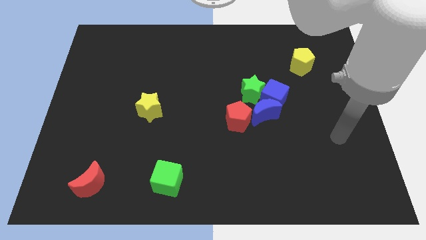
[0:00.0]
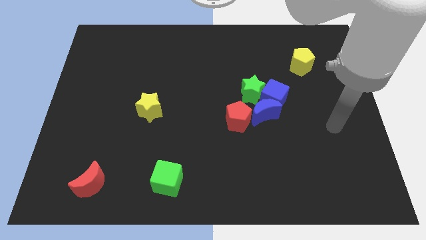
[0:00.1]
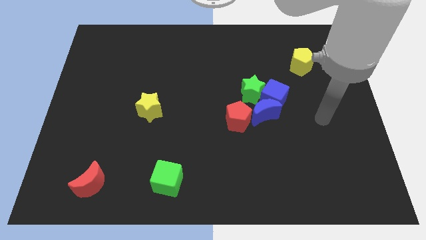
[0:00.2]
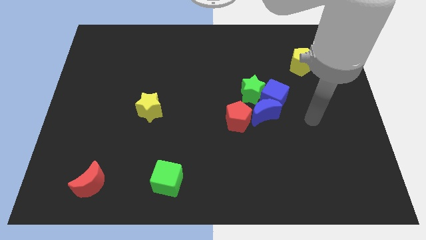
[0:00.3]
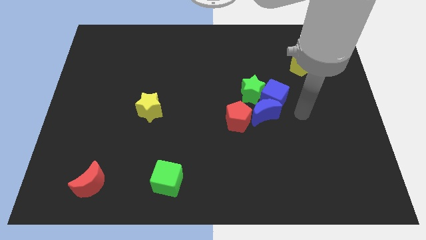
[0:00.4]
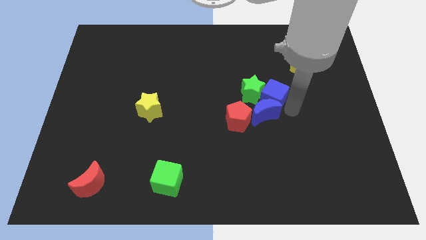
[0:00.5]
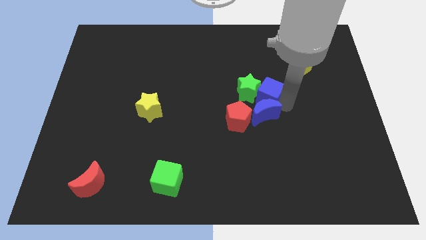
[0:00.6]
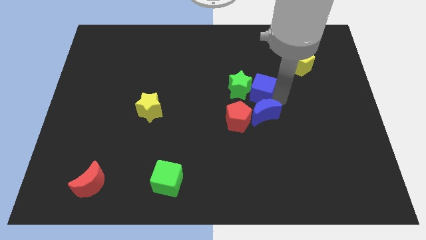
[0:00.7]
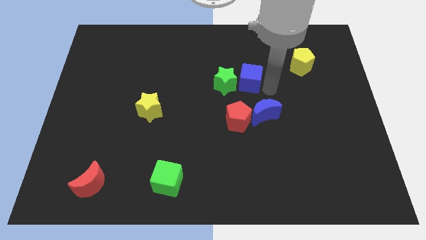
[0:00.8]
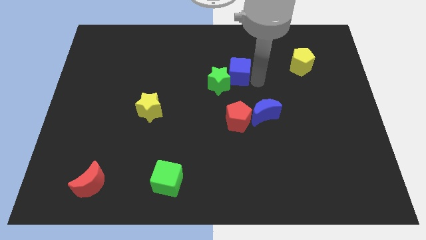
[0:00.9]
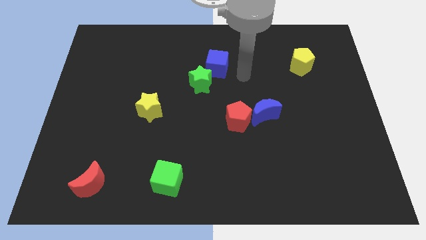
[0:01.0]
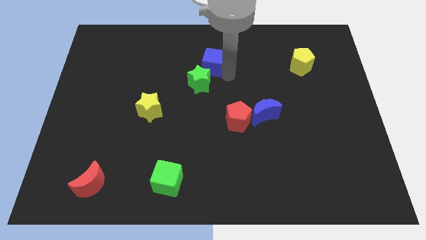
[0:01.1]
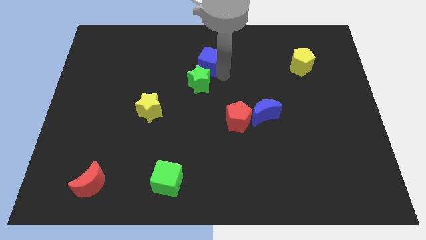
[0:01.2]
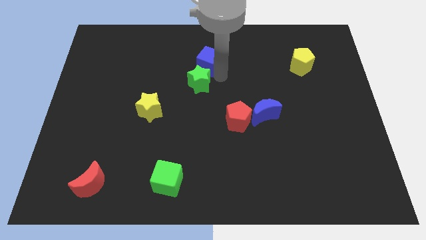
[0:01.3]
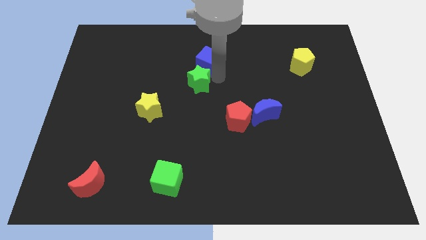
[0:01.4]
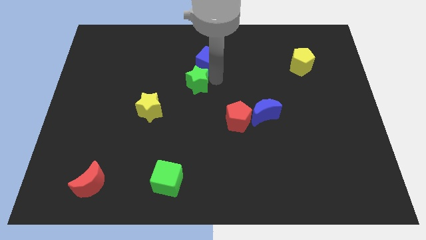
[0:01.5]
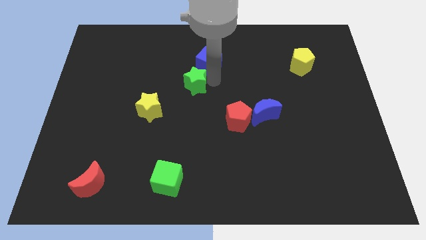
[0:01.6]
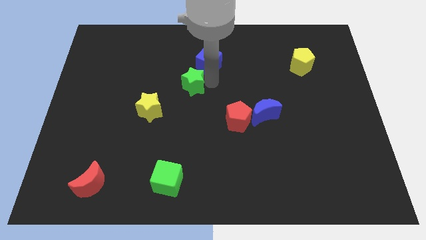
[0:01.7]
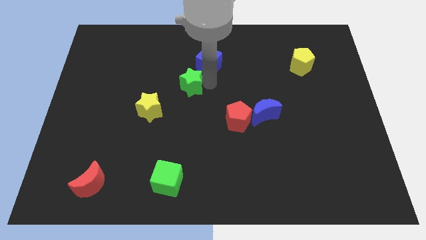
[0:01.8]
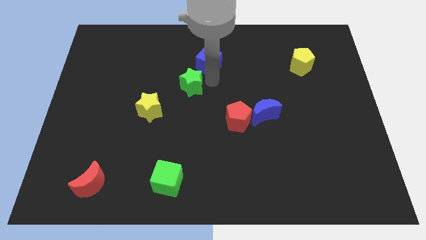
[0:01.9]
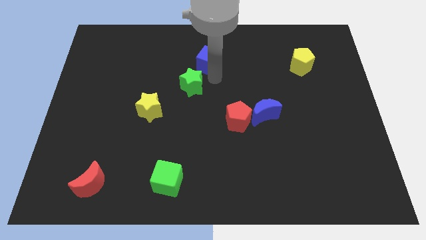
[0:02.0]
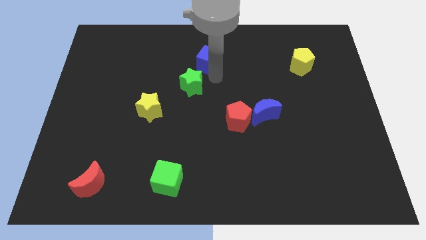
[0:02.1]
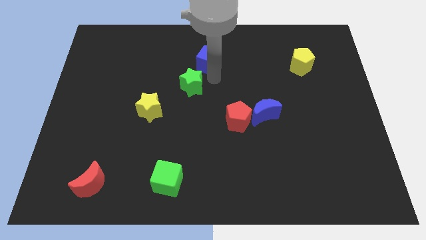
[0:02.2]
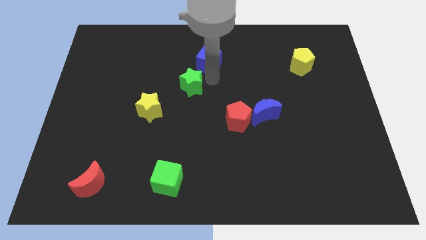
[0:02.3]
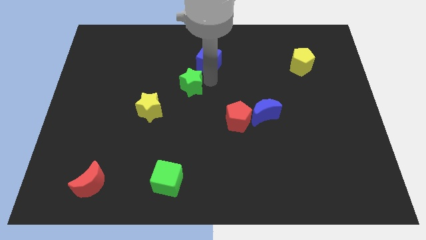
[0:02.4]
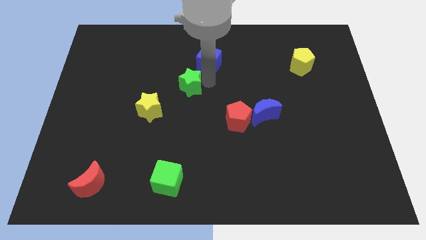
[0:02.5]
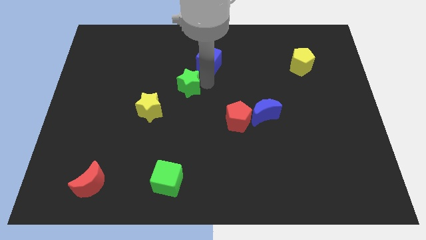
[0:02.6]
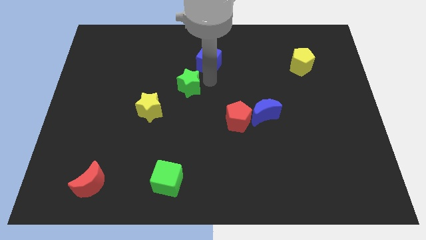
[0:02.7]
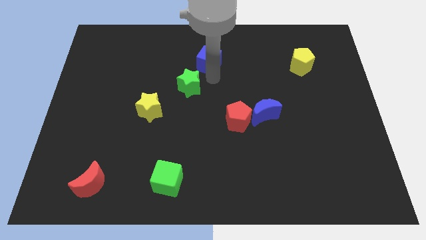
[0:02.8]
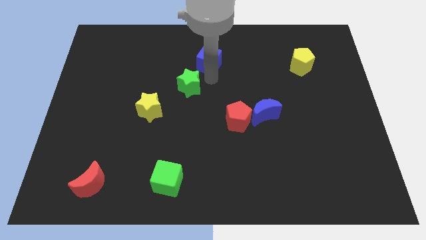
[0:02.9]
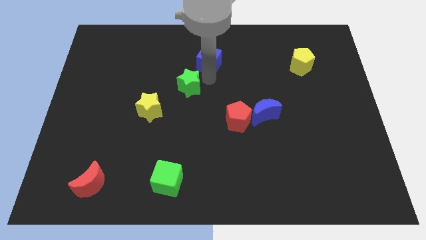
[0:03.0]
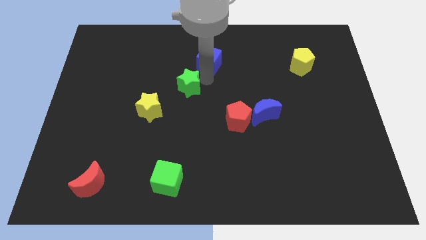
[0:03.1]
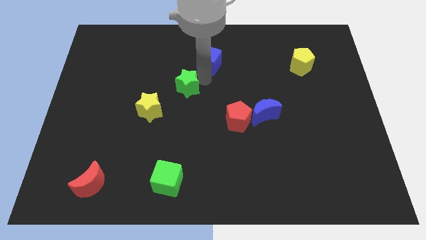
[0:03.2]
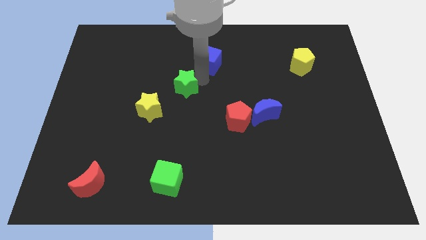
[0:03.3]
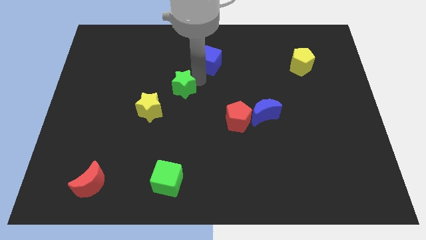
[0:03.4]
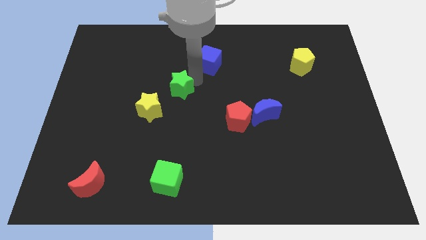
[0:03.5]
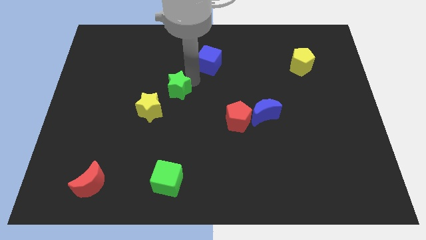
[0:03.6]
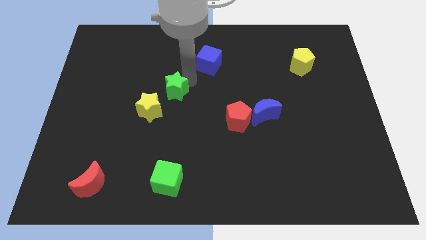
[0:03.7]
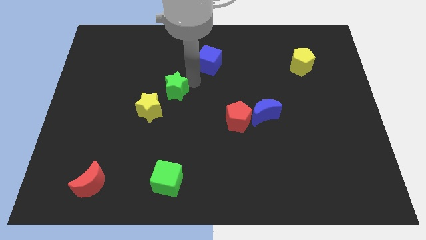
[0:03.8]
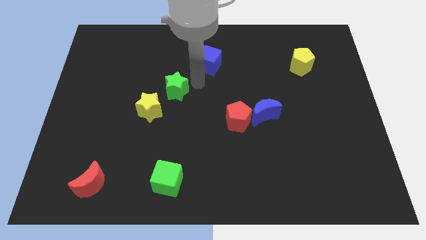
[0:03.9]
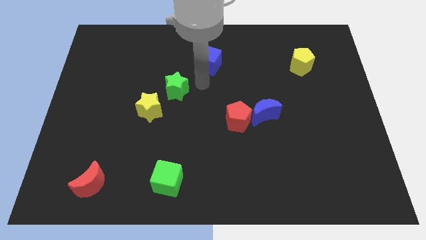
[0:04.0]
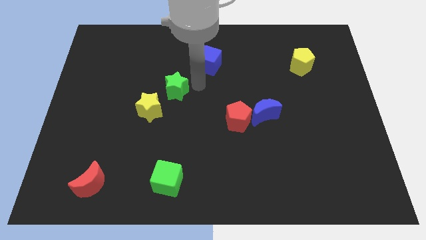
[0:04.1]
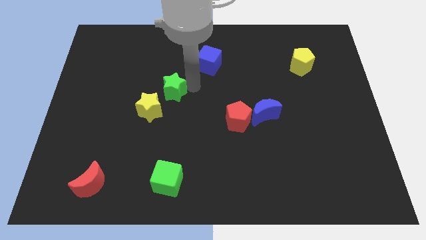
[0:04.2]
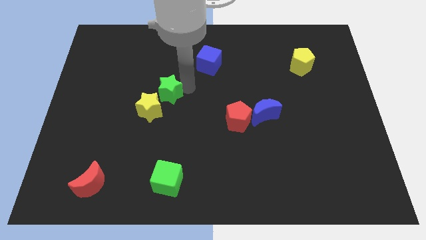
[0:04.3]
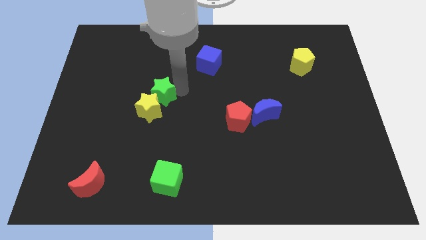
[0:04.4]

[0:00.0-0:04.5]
move the green star left

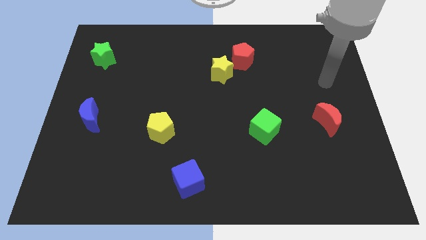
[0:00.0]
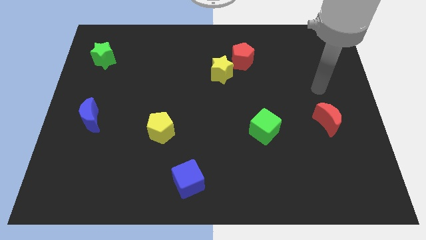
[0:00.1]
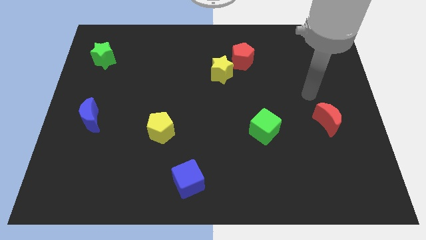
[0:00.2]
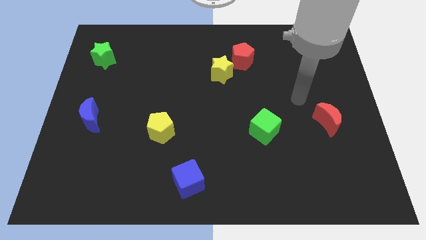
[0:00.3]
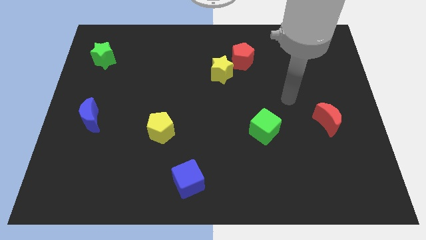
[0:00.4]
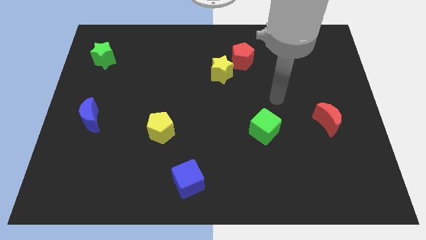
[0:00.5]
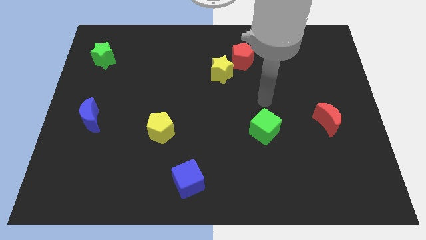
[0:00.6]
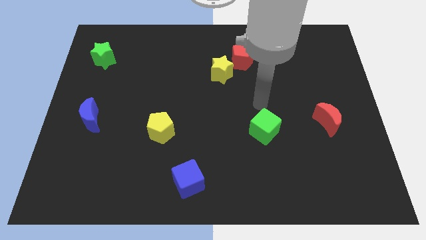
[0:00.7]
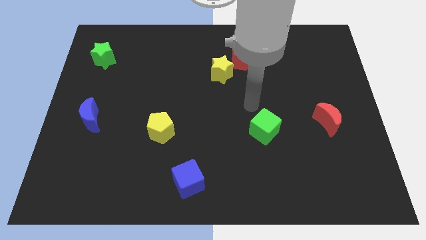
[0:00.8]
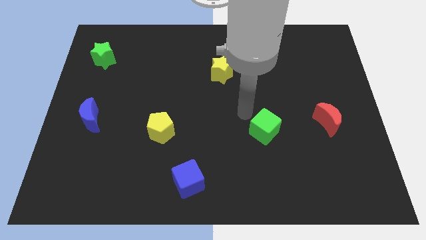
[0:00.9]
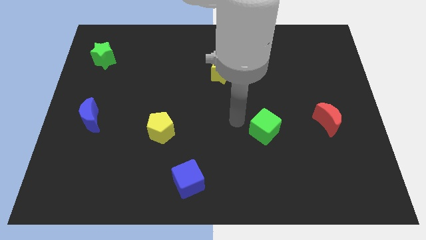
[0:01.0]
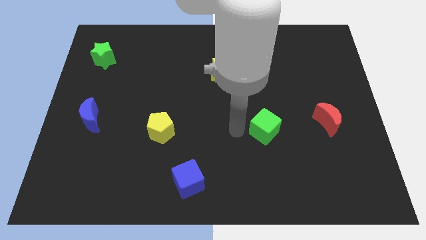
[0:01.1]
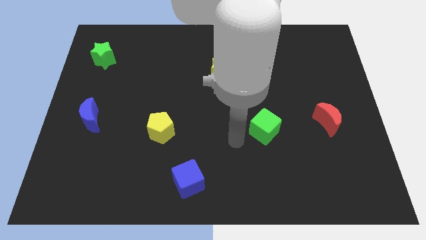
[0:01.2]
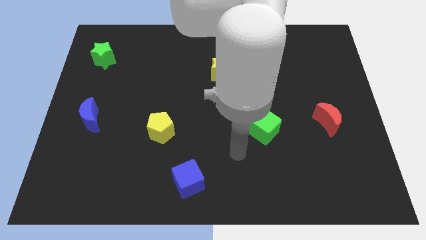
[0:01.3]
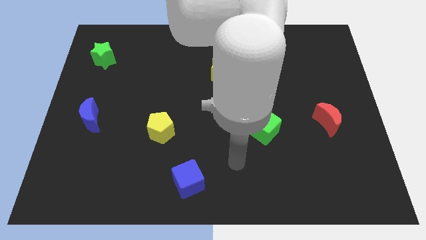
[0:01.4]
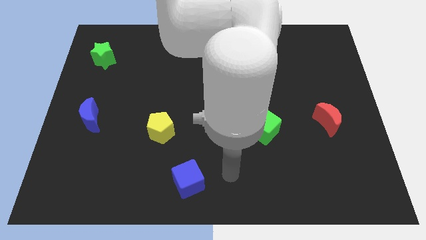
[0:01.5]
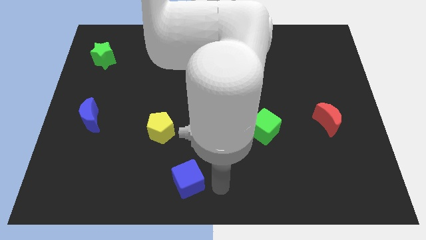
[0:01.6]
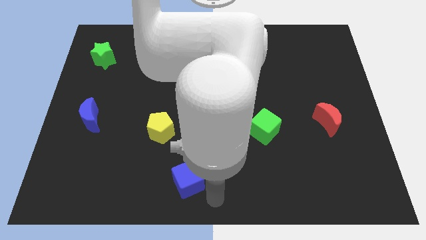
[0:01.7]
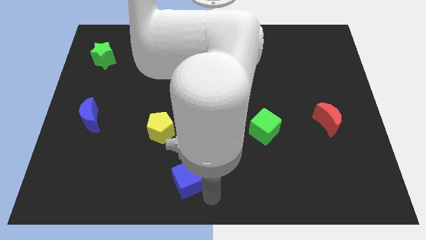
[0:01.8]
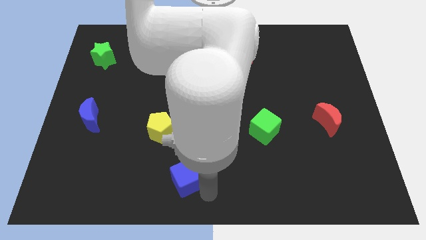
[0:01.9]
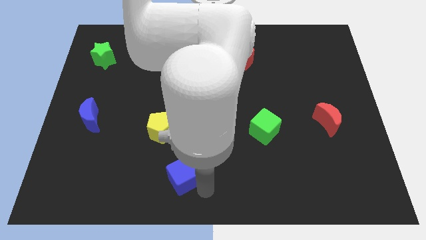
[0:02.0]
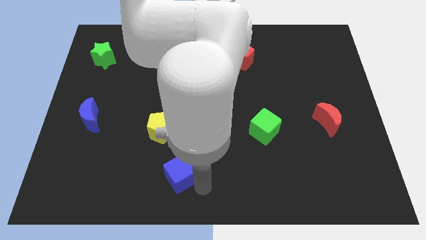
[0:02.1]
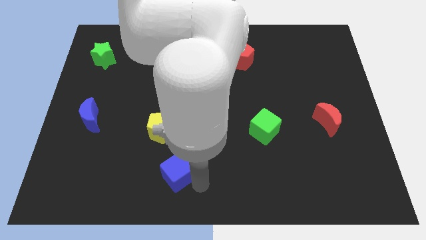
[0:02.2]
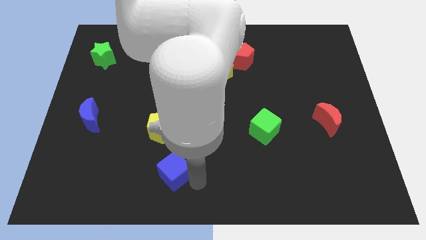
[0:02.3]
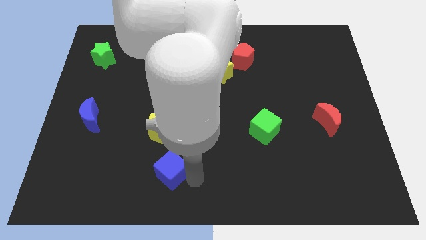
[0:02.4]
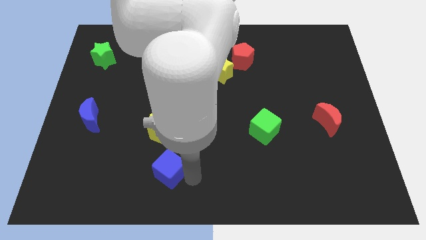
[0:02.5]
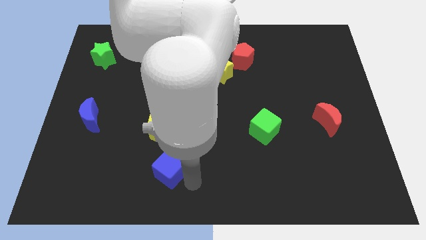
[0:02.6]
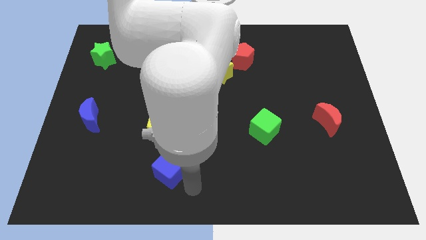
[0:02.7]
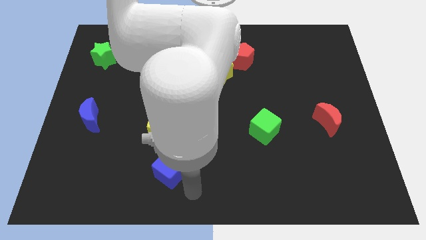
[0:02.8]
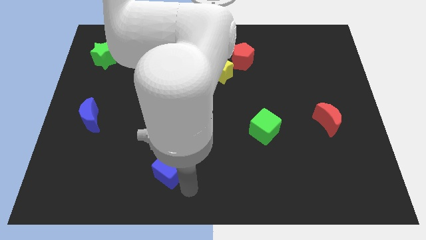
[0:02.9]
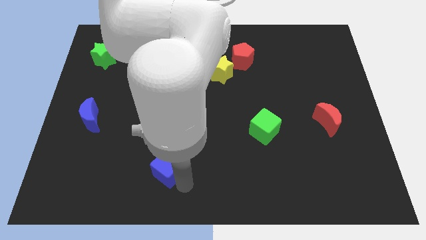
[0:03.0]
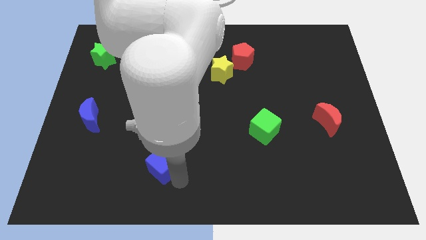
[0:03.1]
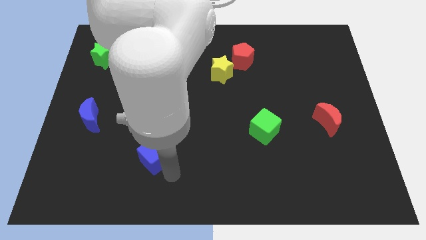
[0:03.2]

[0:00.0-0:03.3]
slightly move the blue cube diagonally up and left
